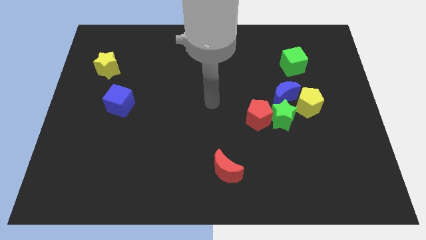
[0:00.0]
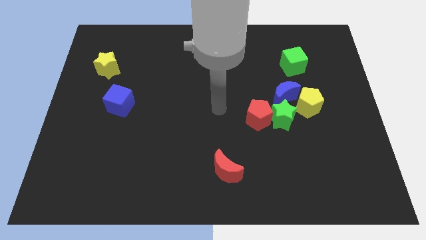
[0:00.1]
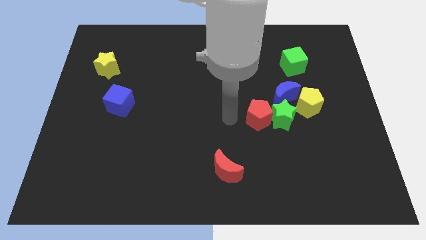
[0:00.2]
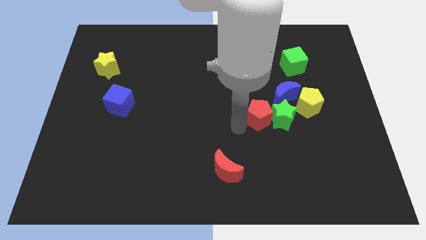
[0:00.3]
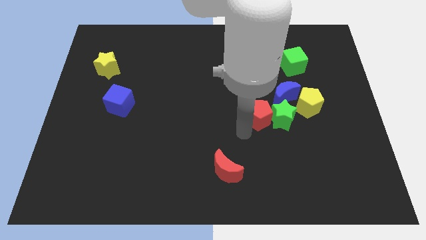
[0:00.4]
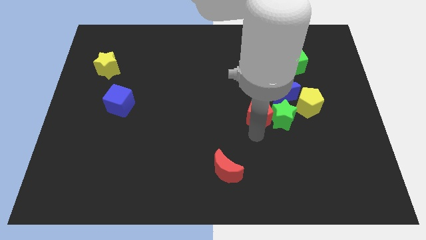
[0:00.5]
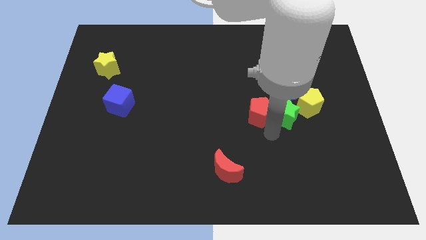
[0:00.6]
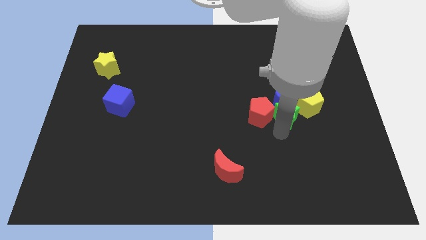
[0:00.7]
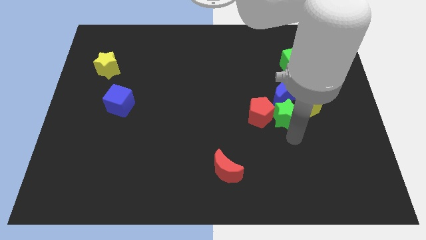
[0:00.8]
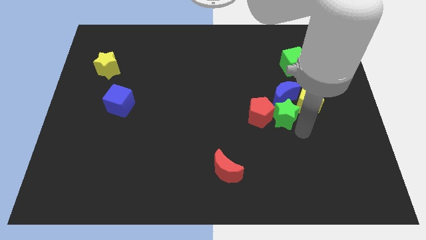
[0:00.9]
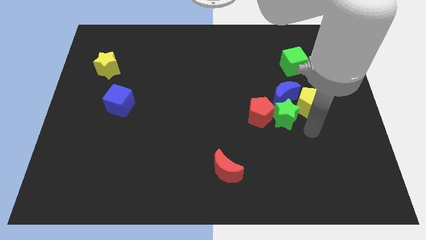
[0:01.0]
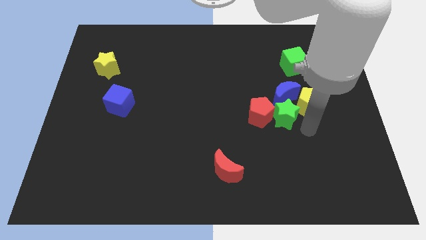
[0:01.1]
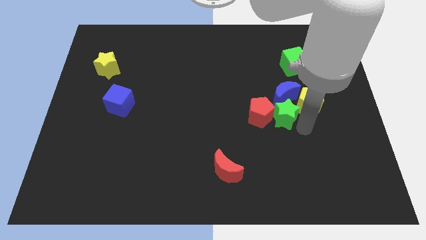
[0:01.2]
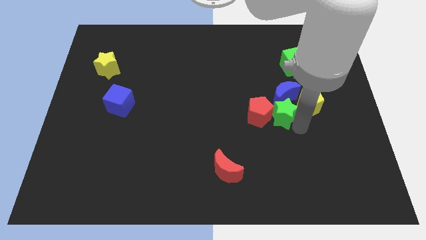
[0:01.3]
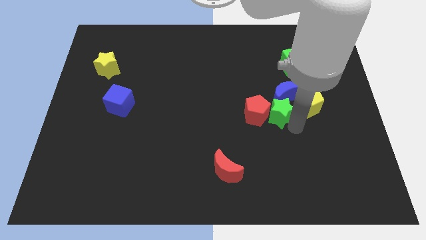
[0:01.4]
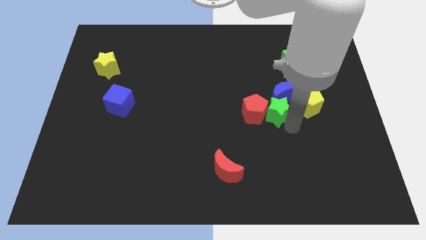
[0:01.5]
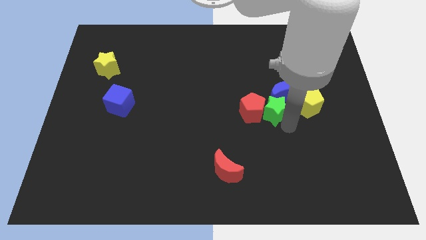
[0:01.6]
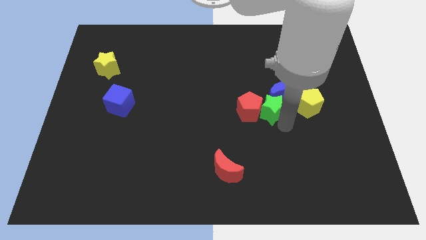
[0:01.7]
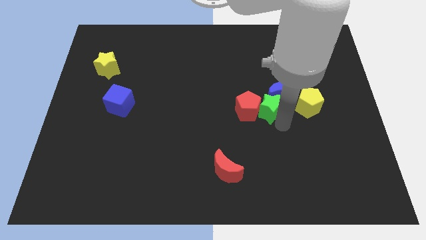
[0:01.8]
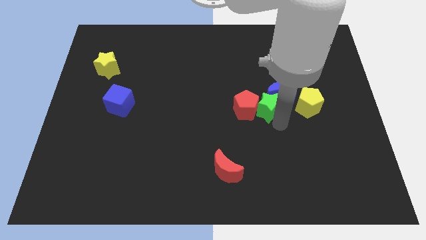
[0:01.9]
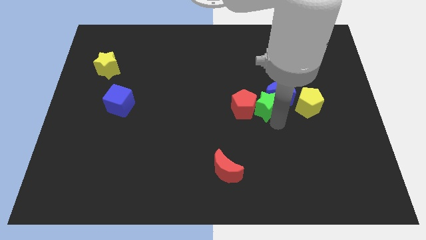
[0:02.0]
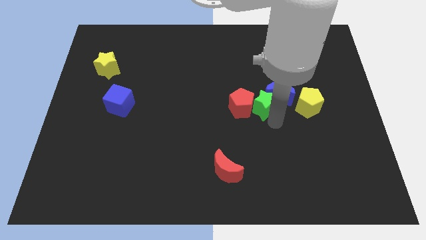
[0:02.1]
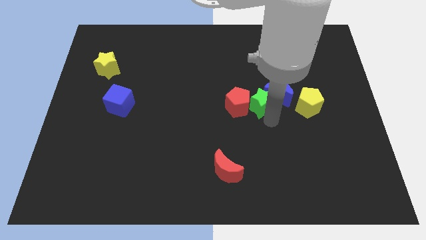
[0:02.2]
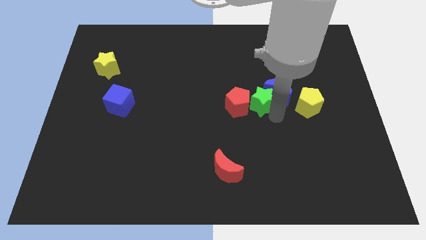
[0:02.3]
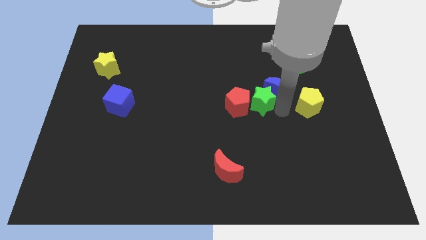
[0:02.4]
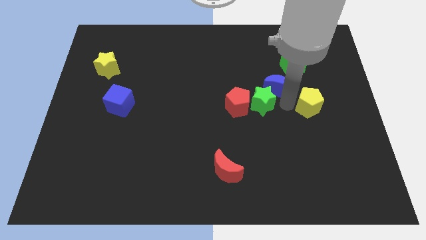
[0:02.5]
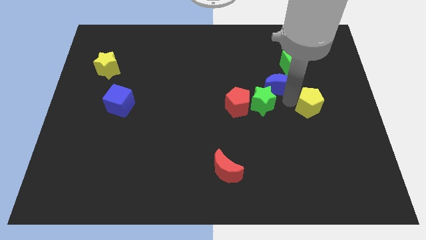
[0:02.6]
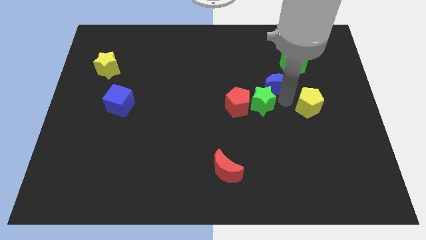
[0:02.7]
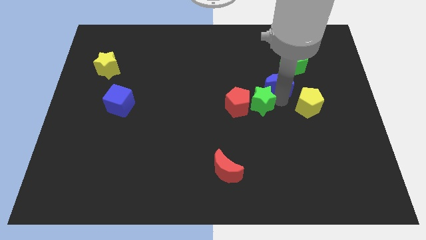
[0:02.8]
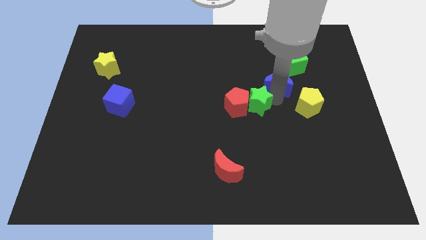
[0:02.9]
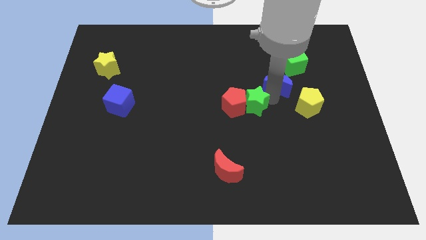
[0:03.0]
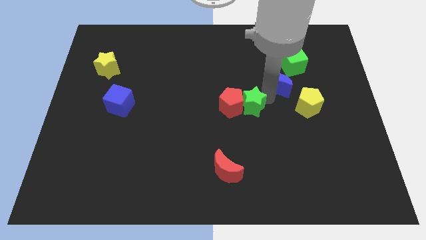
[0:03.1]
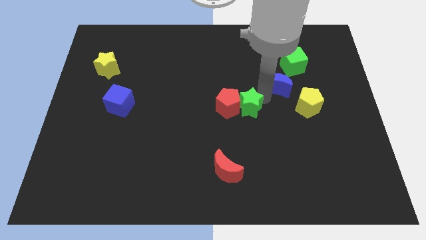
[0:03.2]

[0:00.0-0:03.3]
slide the green star left a bit

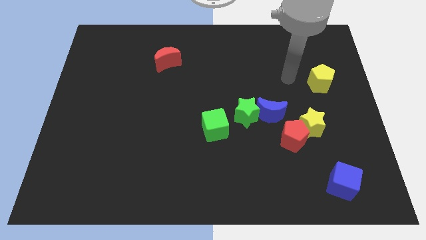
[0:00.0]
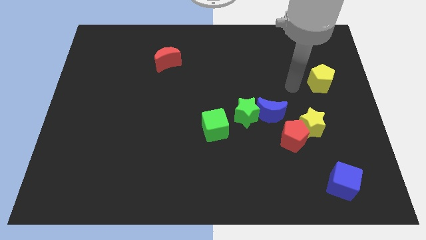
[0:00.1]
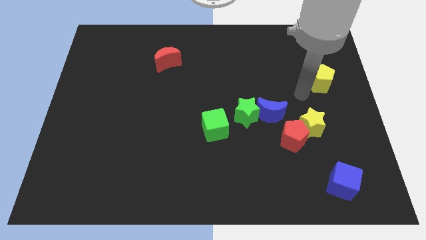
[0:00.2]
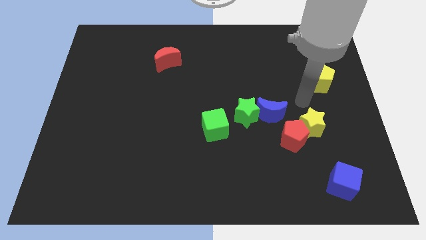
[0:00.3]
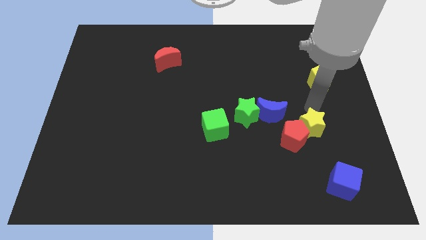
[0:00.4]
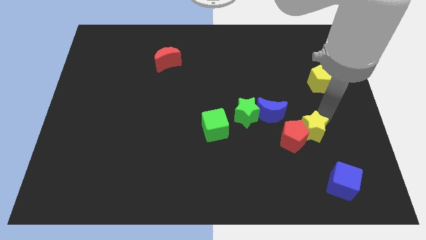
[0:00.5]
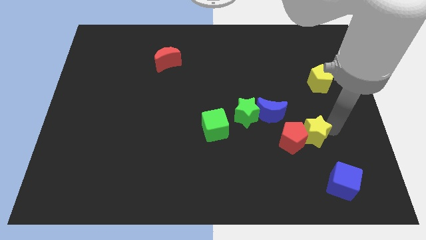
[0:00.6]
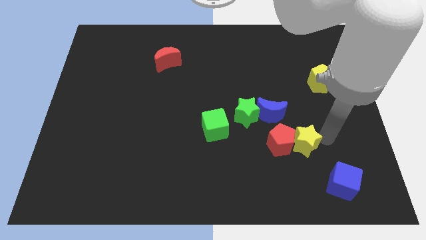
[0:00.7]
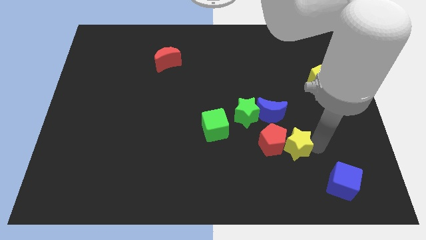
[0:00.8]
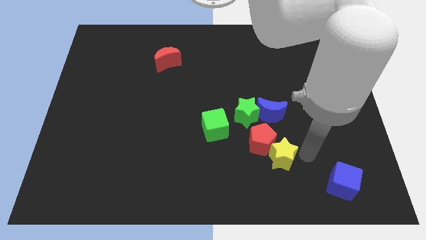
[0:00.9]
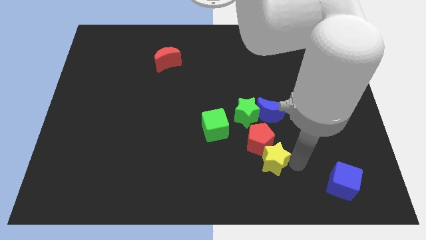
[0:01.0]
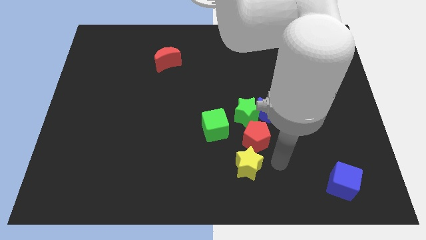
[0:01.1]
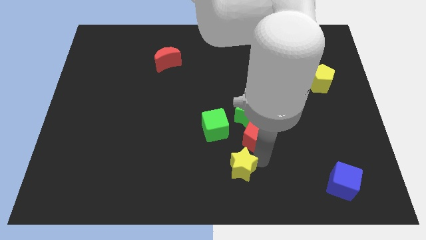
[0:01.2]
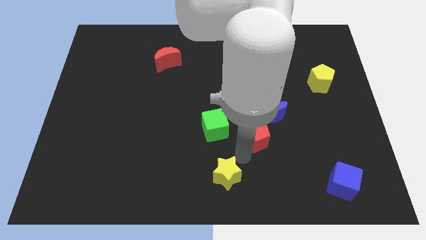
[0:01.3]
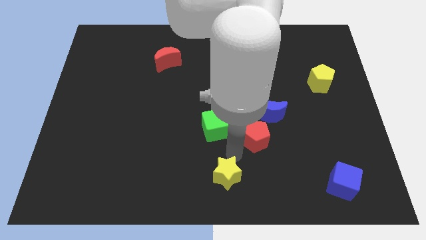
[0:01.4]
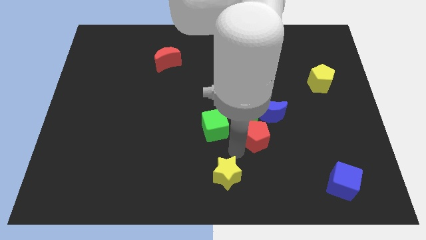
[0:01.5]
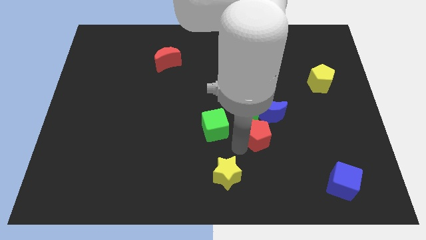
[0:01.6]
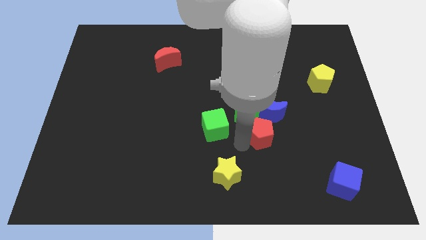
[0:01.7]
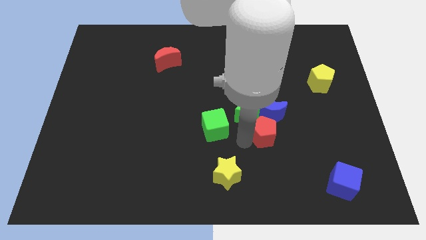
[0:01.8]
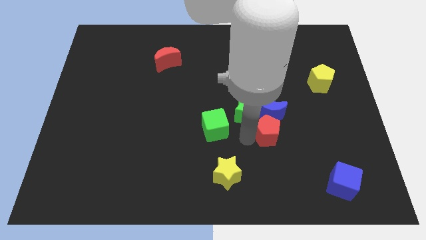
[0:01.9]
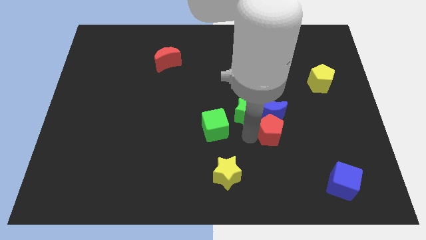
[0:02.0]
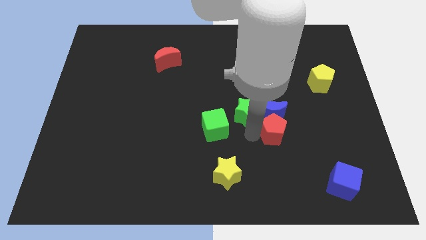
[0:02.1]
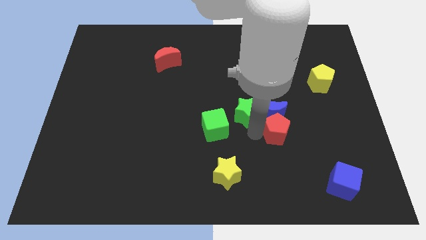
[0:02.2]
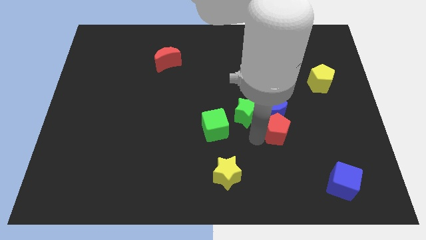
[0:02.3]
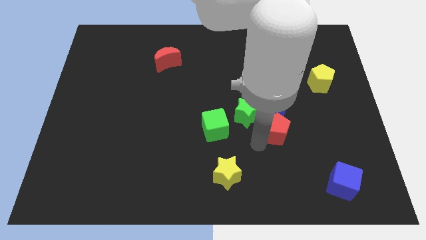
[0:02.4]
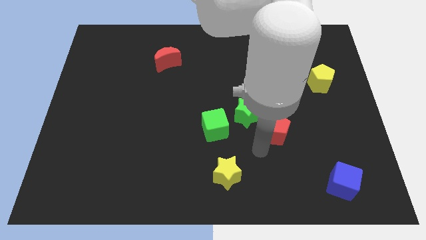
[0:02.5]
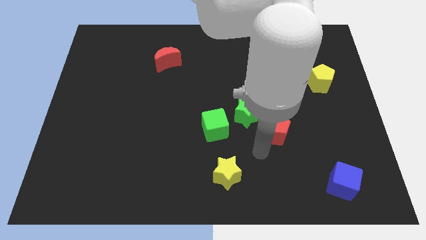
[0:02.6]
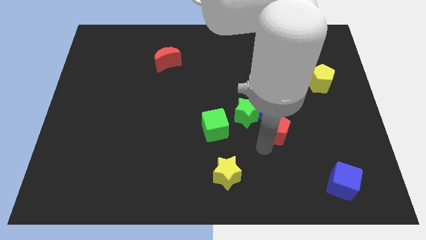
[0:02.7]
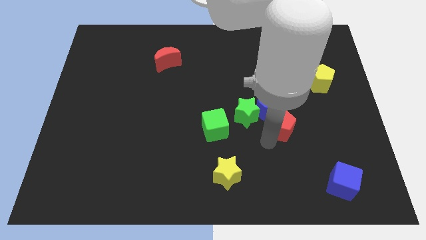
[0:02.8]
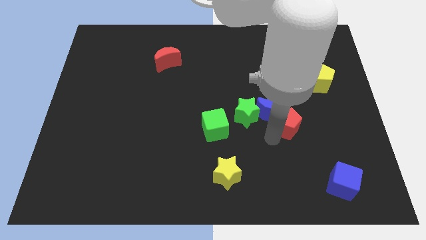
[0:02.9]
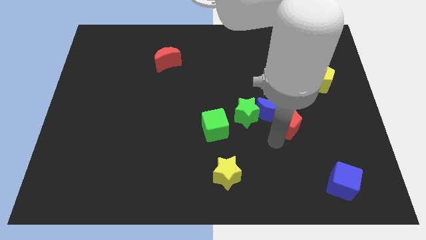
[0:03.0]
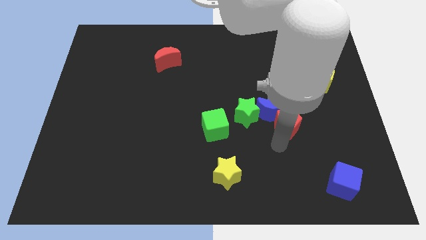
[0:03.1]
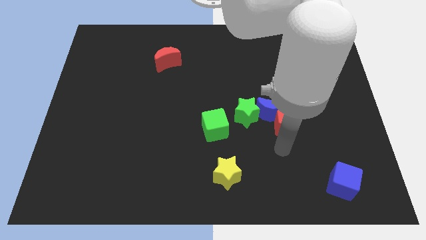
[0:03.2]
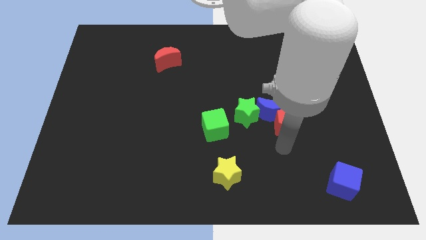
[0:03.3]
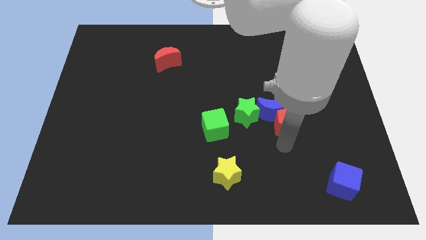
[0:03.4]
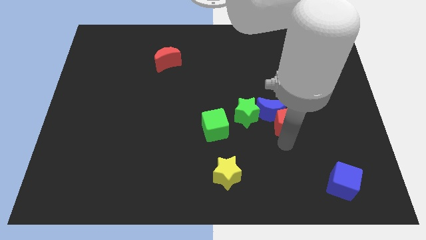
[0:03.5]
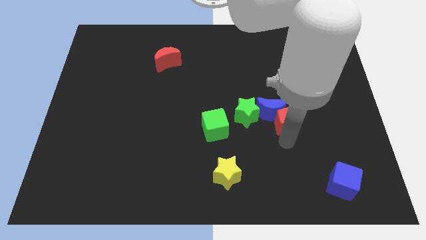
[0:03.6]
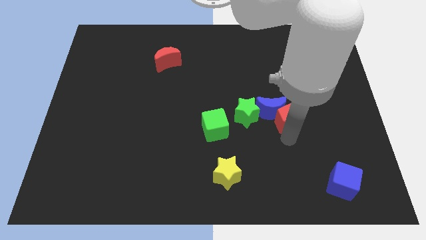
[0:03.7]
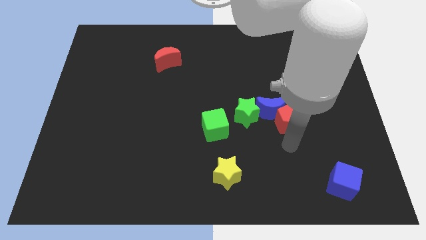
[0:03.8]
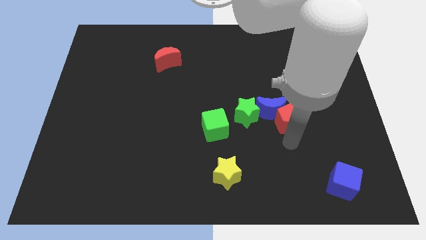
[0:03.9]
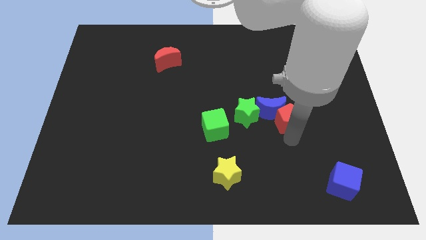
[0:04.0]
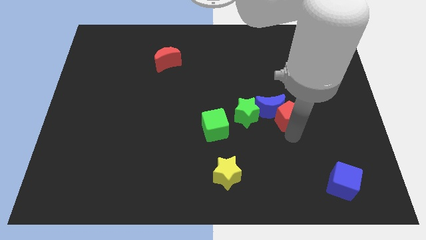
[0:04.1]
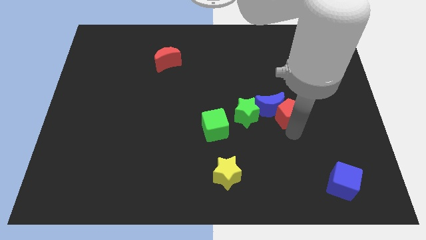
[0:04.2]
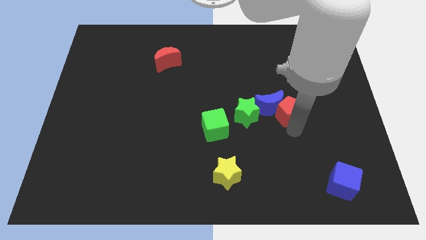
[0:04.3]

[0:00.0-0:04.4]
push the red pentagon a bit upwards
